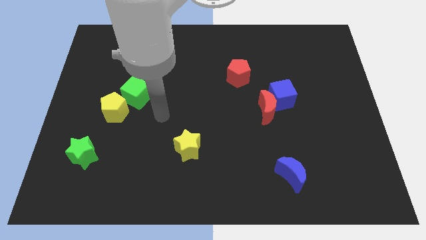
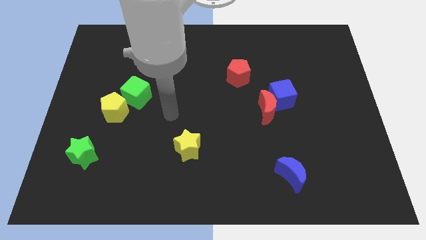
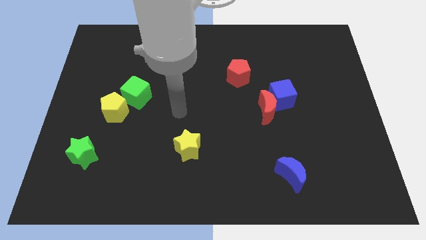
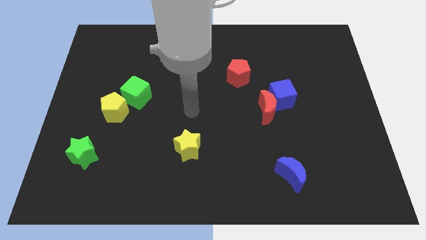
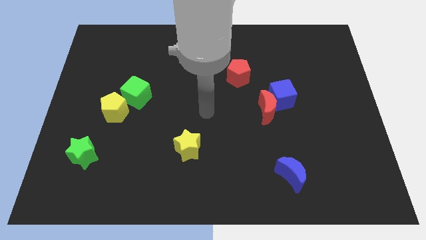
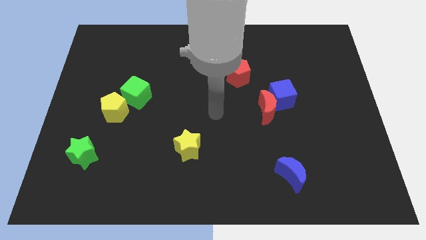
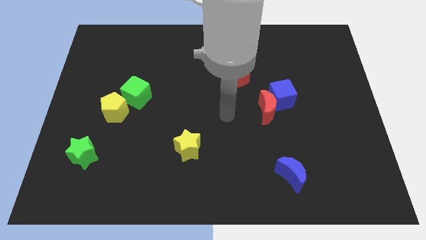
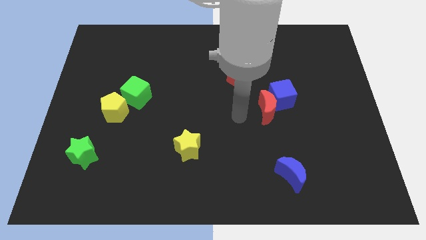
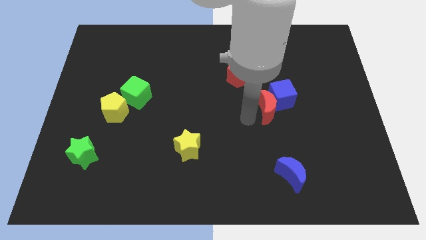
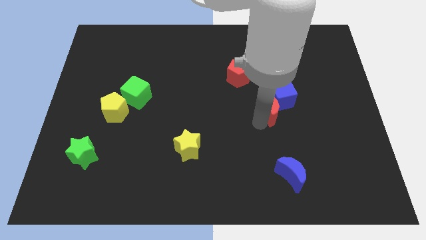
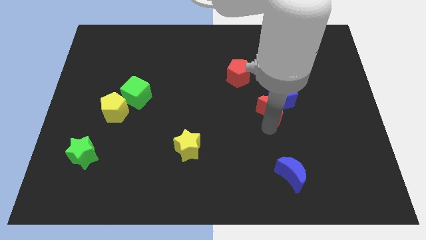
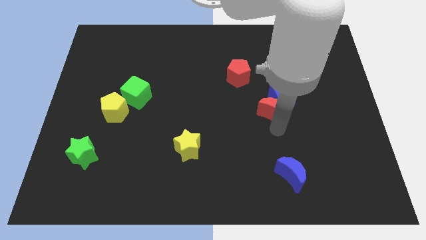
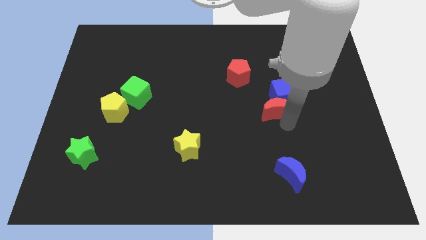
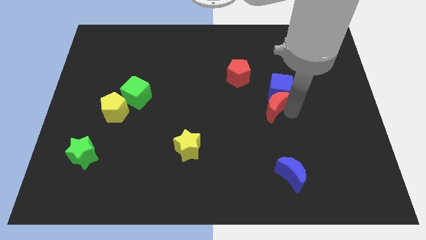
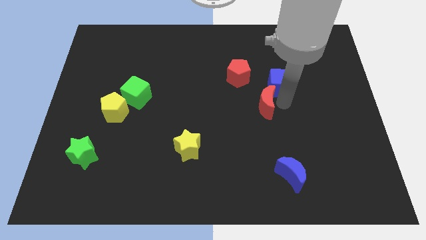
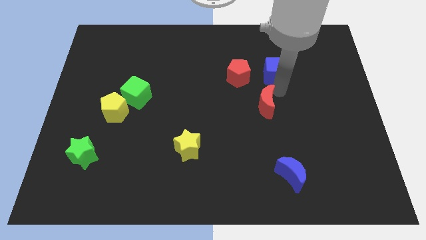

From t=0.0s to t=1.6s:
move the red moon away from the blue cube

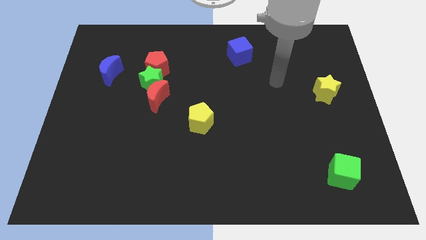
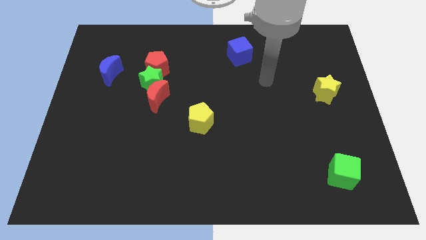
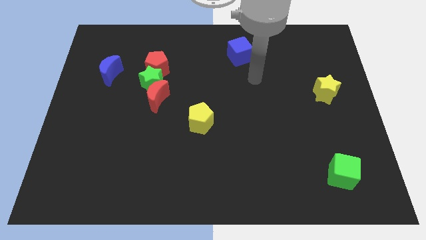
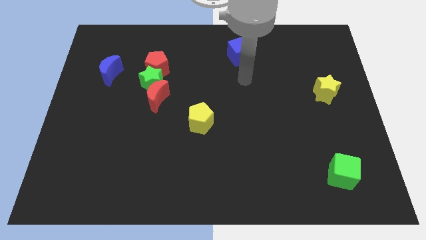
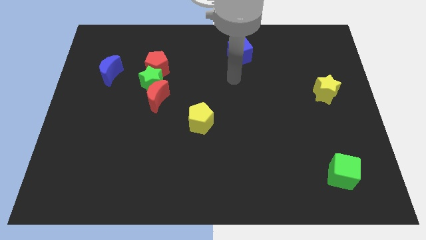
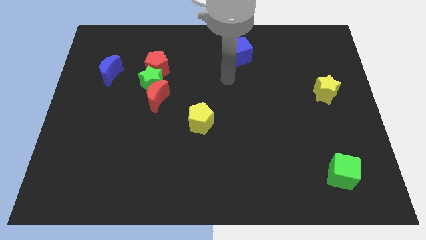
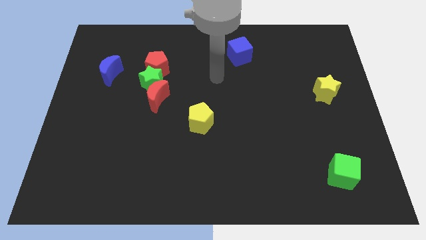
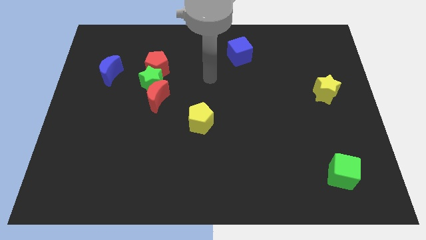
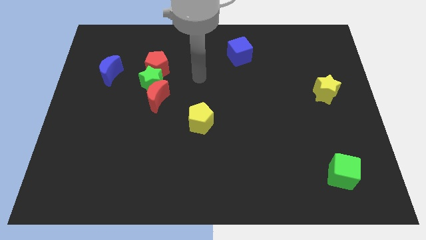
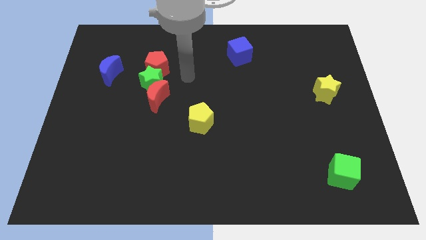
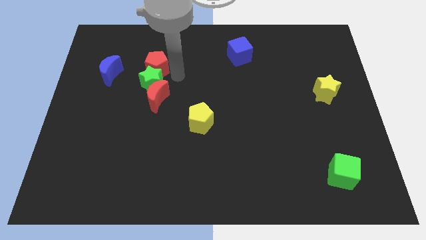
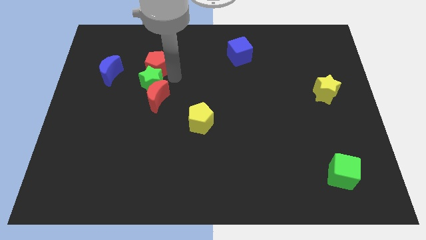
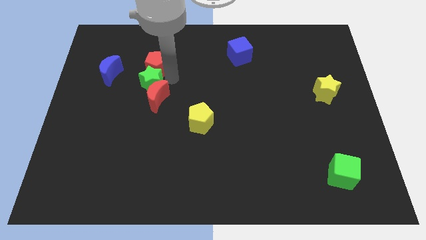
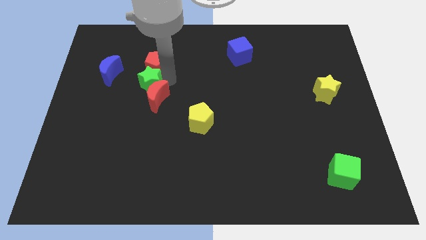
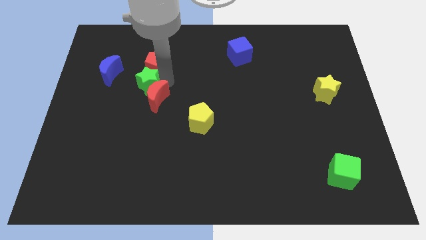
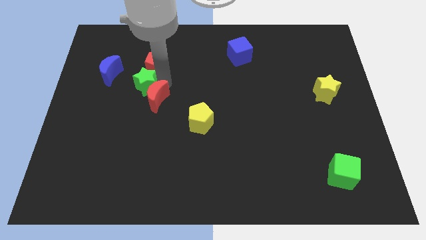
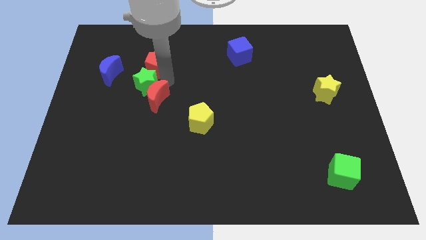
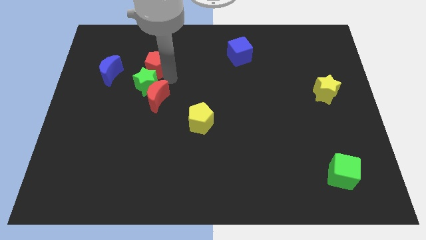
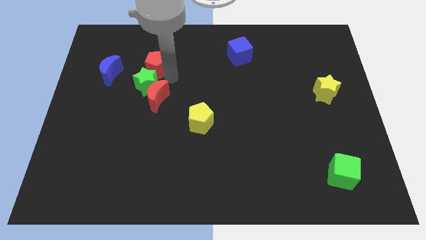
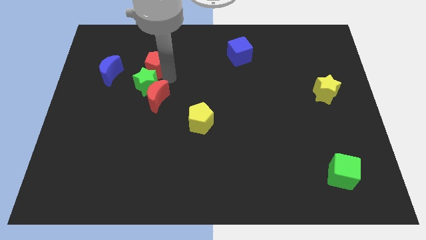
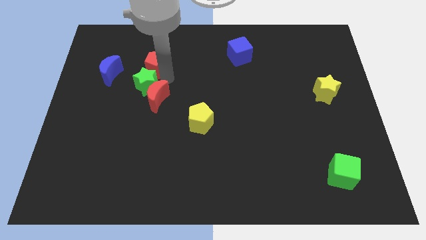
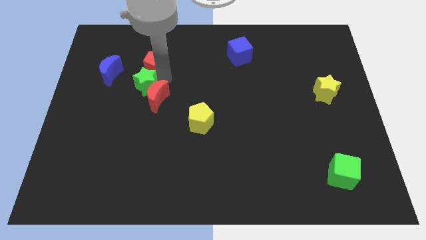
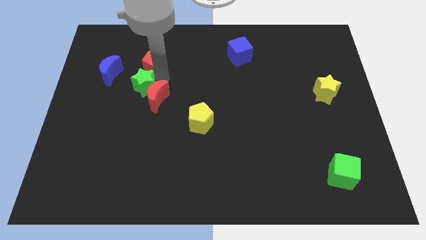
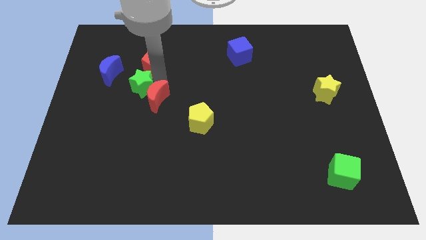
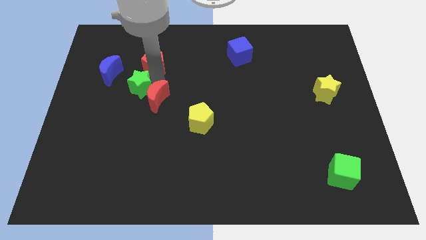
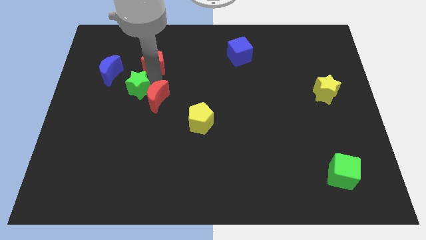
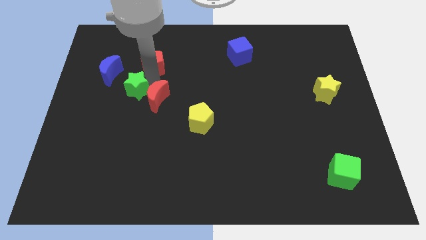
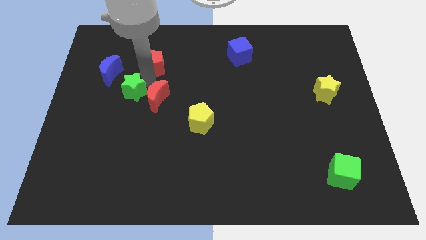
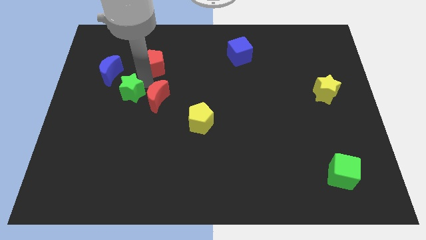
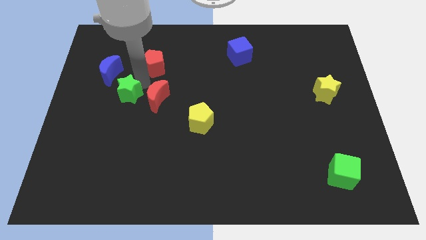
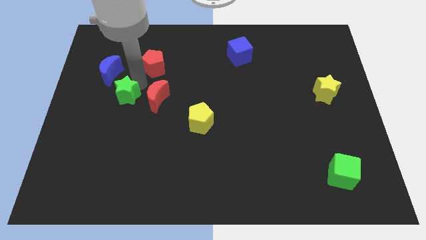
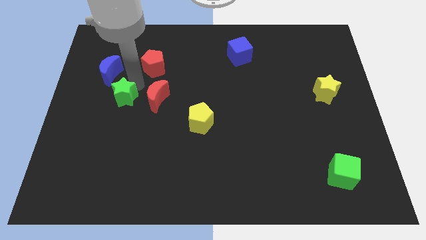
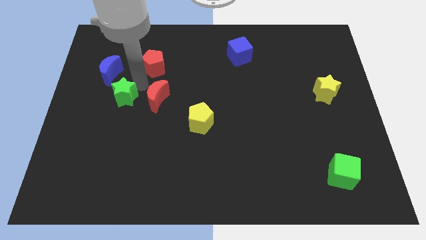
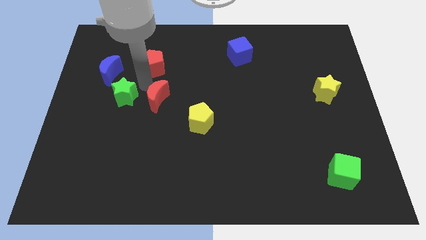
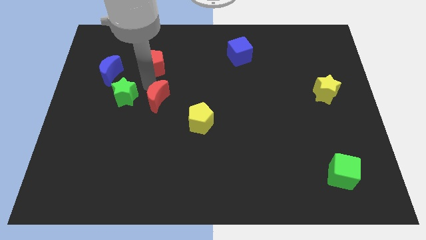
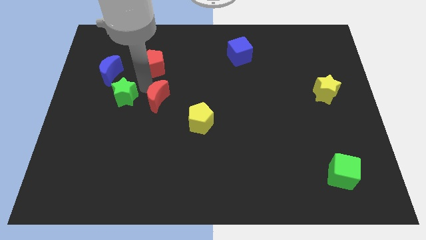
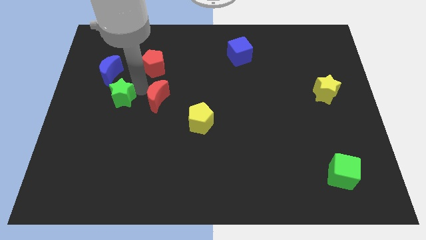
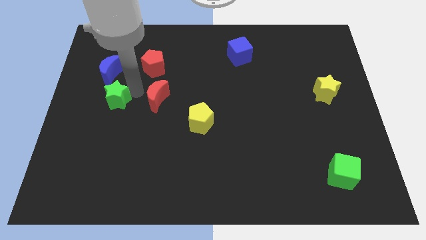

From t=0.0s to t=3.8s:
pull the green star apart from the red moon and red pentagon

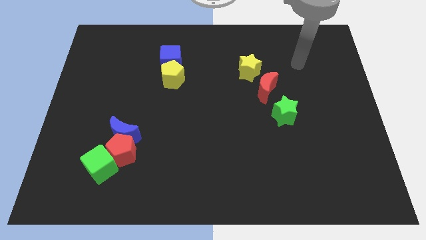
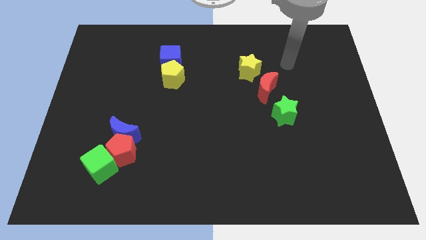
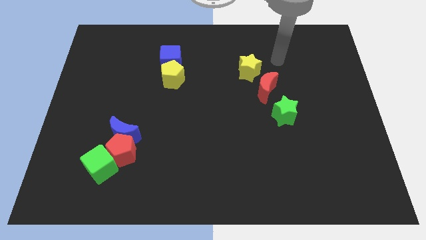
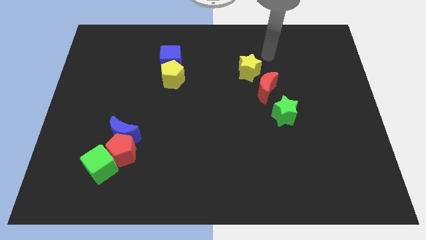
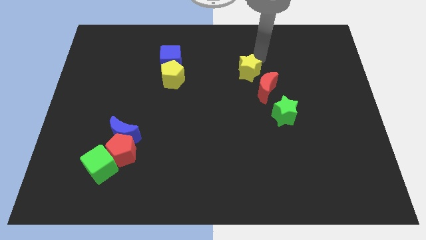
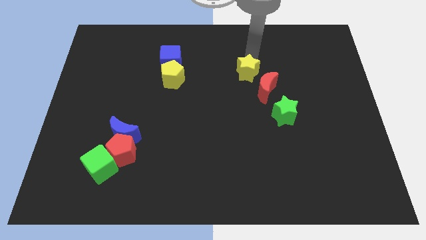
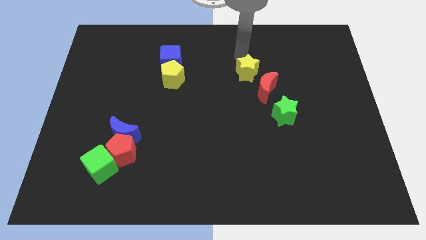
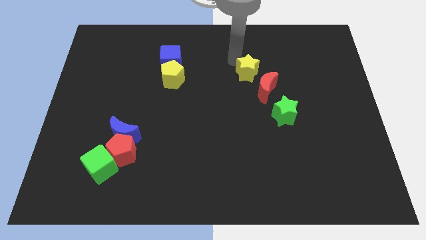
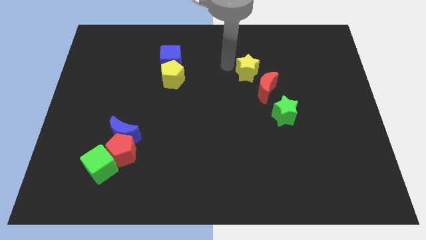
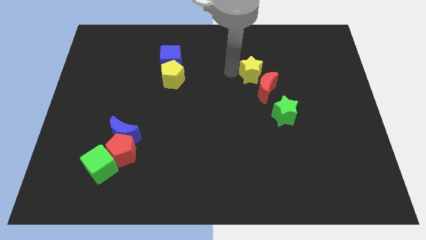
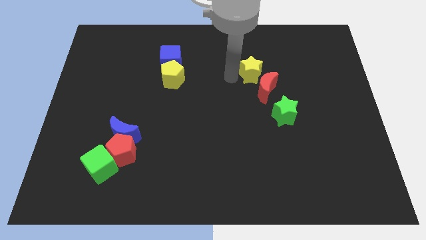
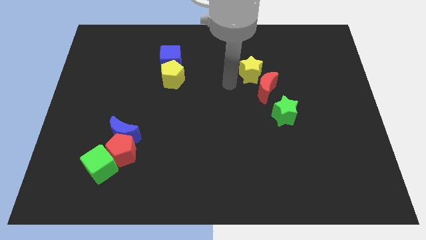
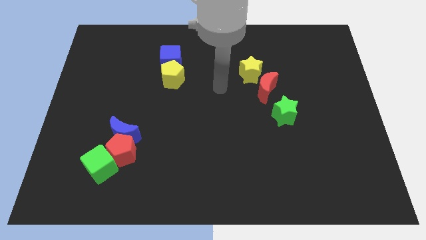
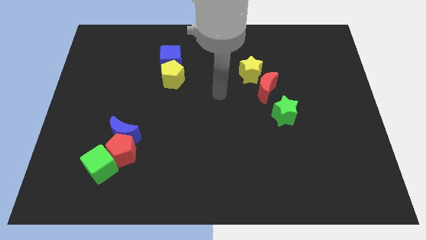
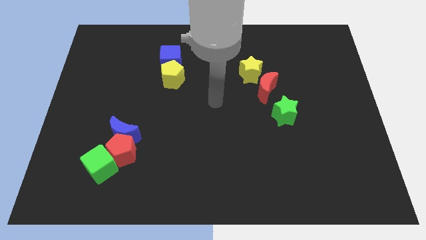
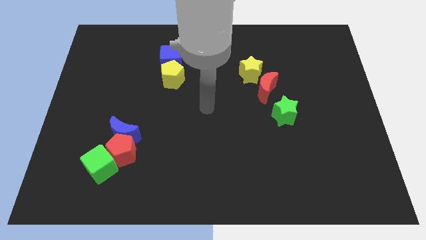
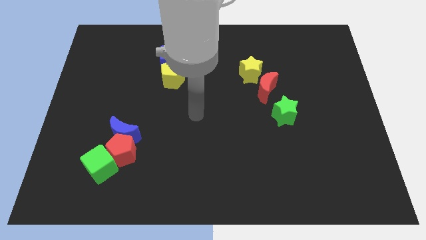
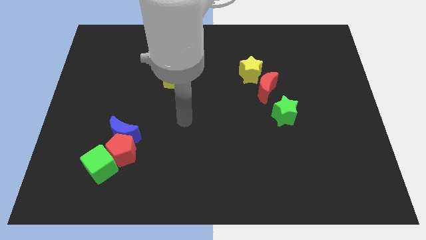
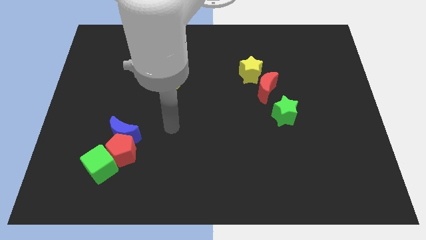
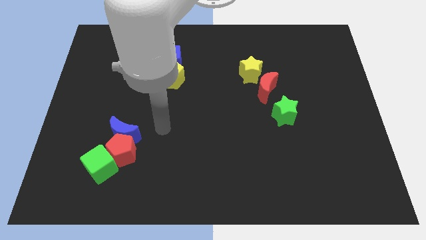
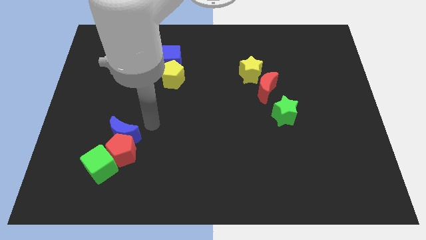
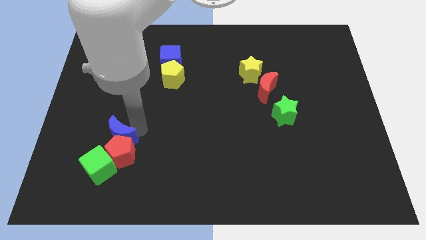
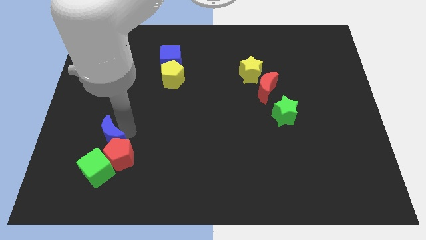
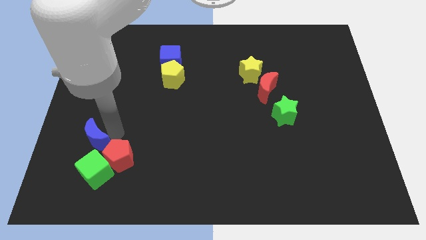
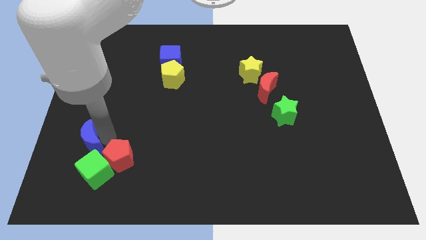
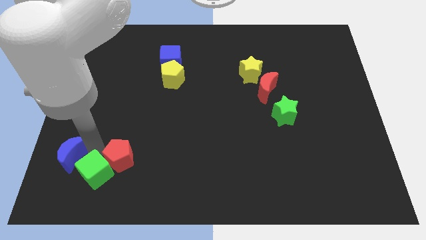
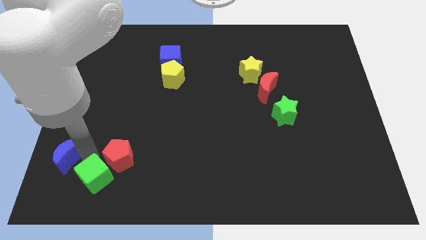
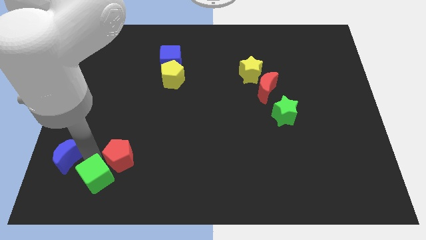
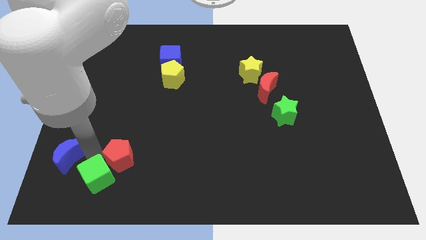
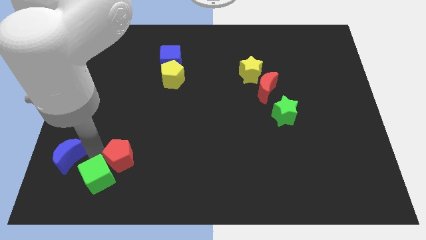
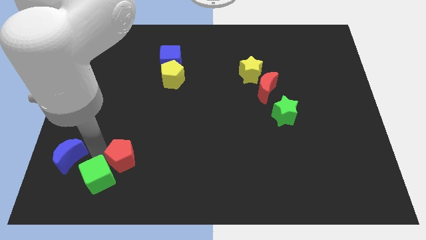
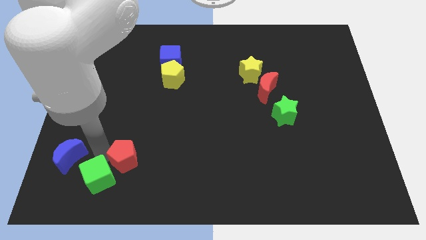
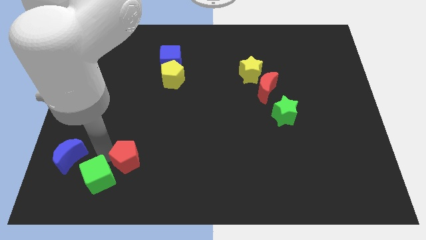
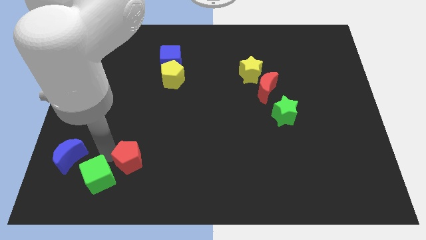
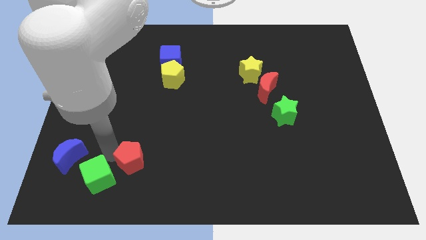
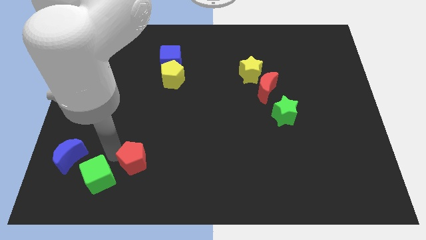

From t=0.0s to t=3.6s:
separate the red pentagon from the blue moon and green cube

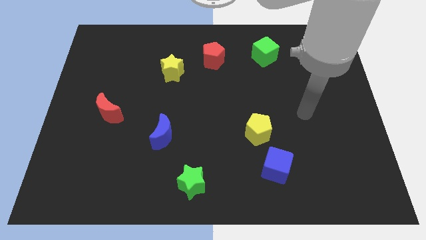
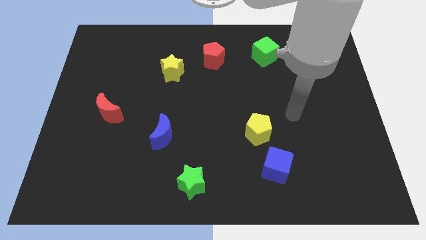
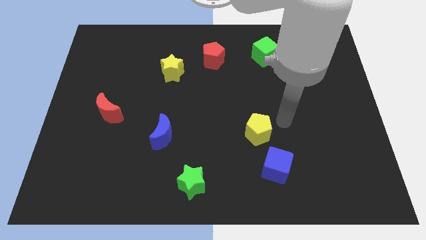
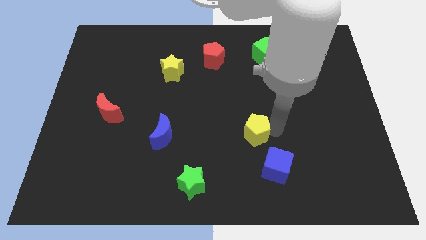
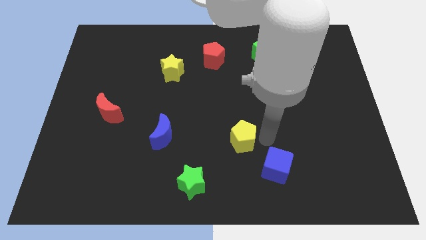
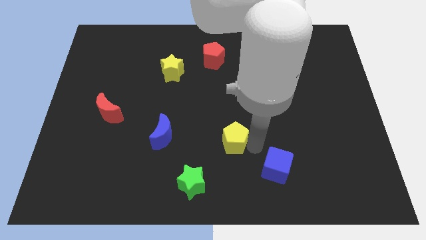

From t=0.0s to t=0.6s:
pull the blue cube apart from the yellow pentagon
